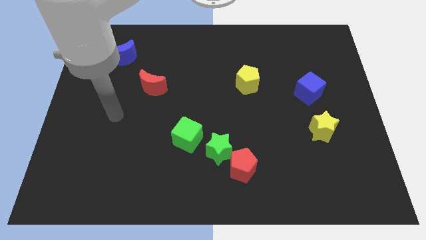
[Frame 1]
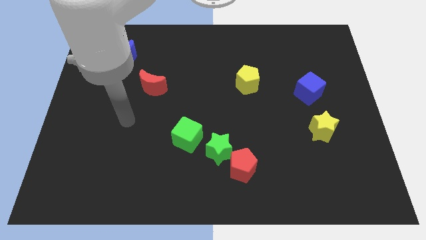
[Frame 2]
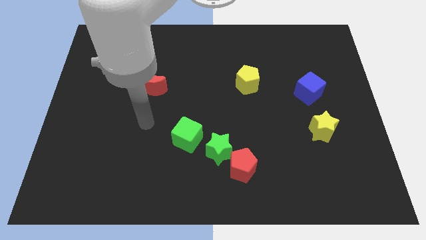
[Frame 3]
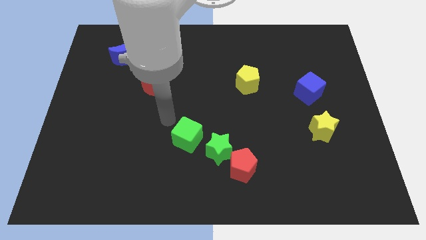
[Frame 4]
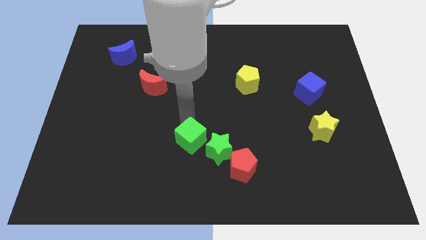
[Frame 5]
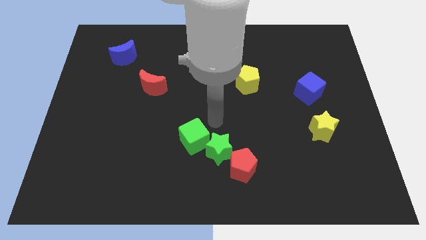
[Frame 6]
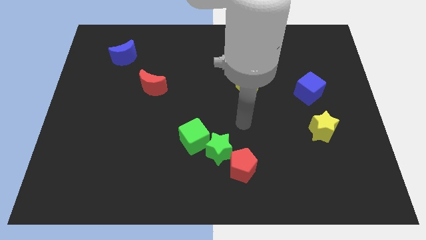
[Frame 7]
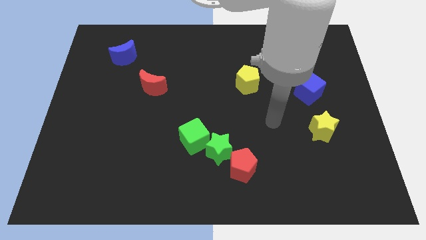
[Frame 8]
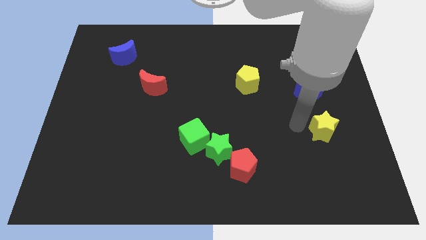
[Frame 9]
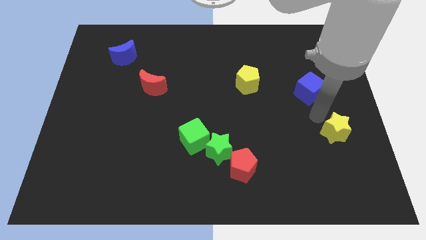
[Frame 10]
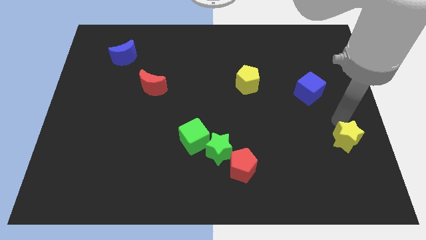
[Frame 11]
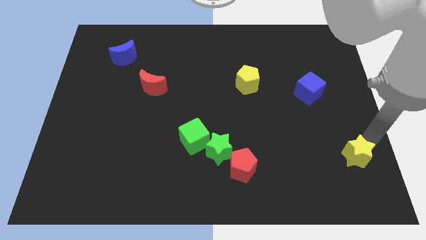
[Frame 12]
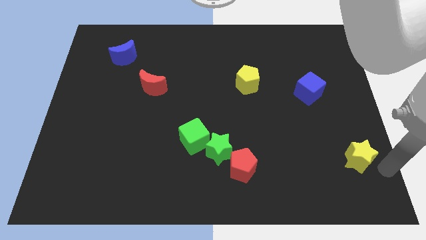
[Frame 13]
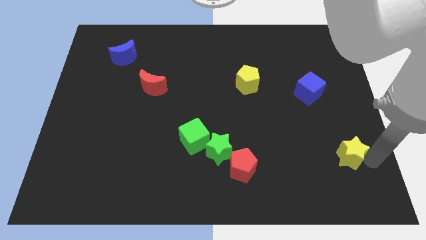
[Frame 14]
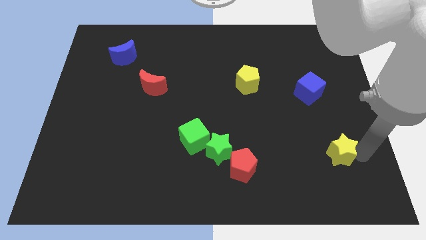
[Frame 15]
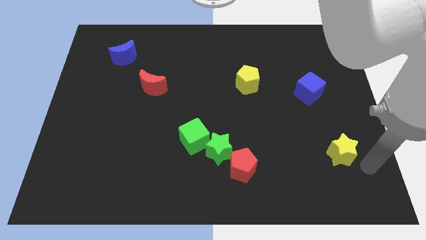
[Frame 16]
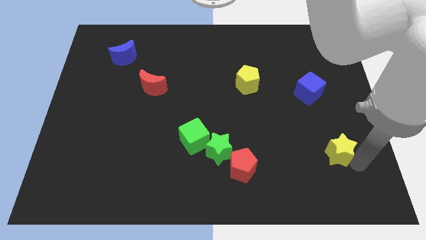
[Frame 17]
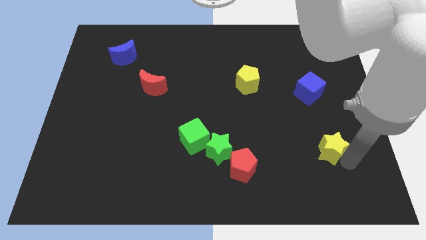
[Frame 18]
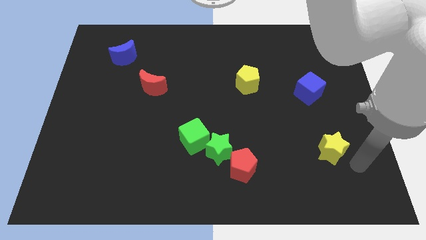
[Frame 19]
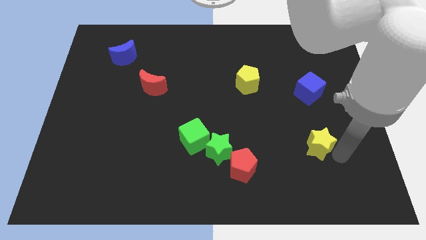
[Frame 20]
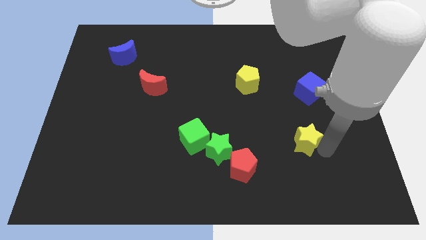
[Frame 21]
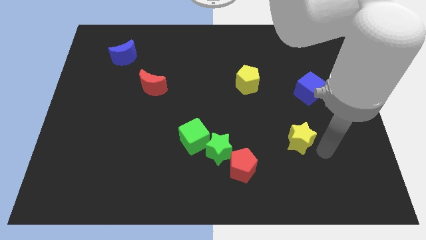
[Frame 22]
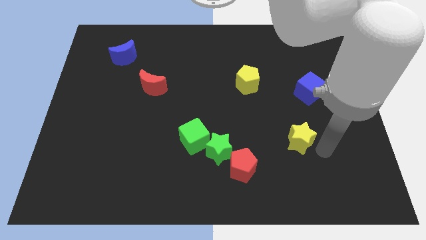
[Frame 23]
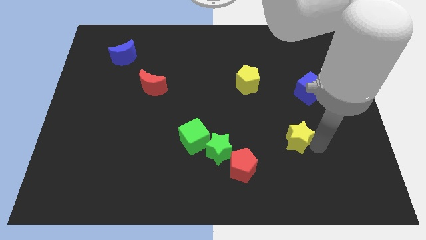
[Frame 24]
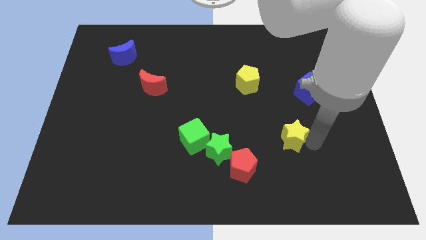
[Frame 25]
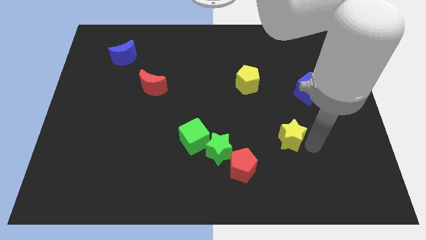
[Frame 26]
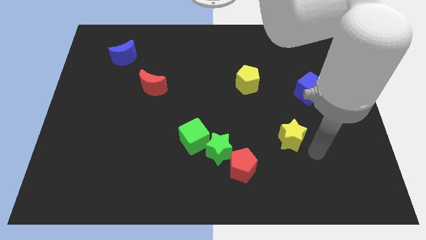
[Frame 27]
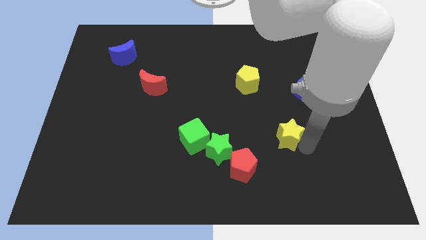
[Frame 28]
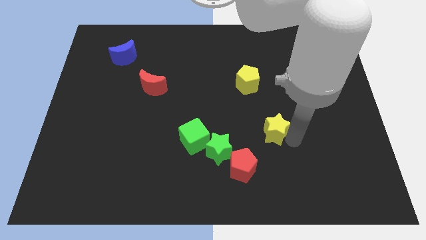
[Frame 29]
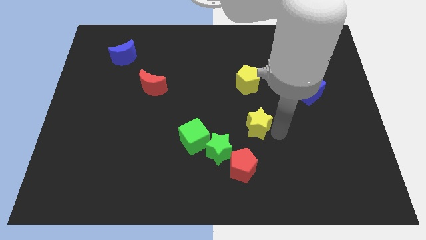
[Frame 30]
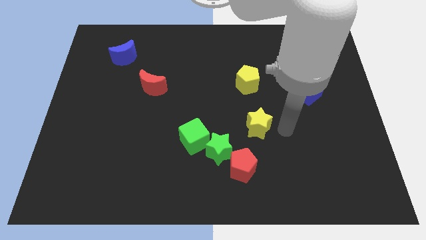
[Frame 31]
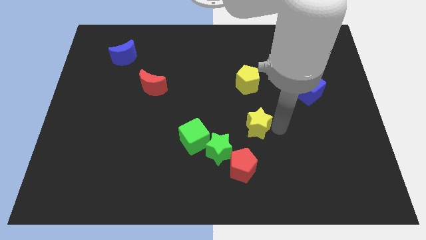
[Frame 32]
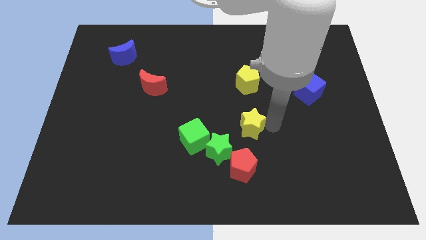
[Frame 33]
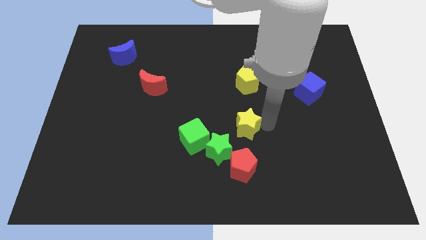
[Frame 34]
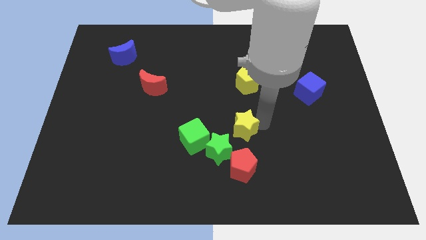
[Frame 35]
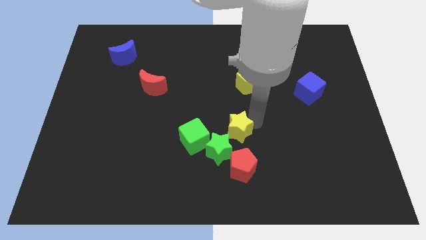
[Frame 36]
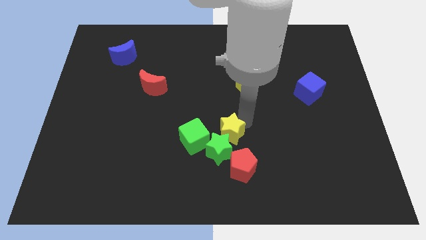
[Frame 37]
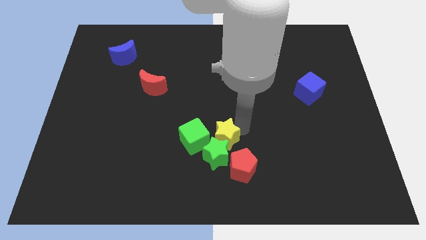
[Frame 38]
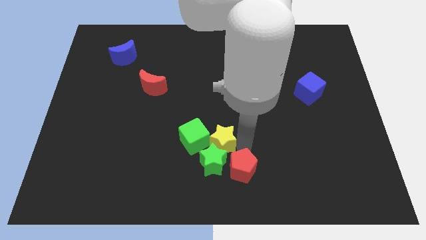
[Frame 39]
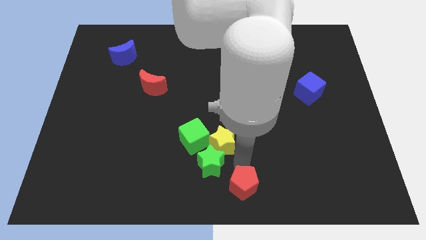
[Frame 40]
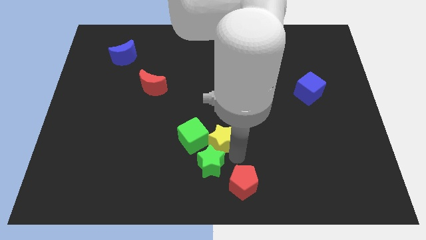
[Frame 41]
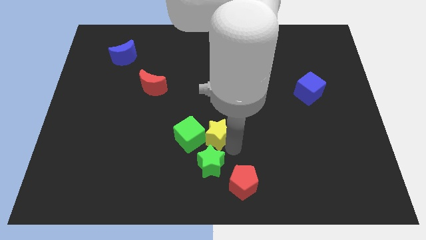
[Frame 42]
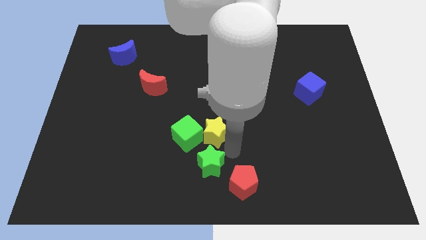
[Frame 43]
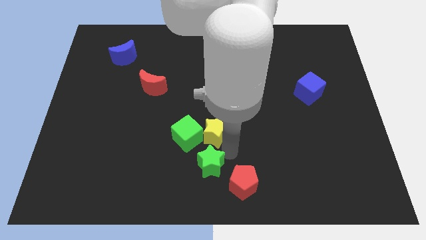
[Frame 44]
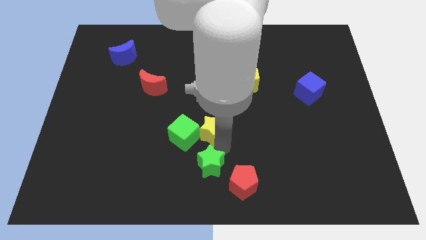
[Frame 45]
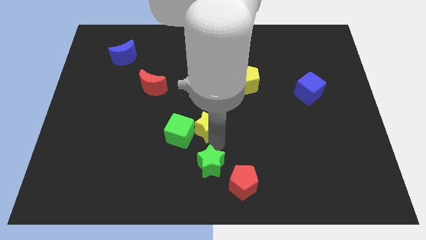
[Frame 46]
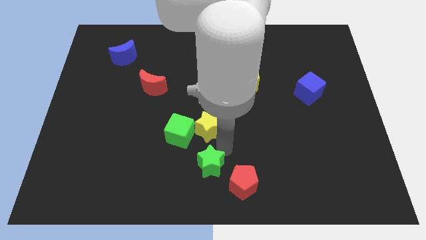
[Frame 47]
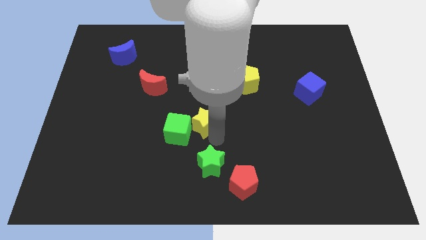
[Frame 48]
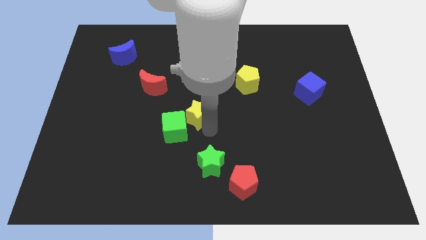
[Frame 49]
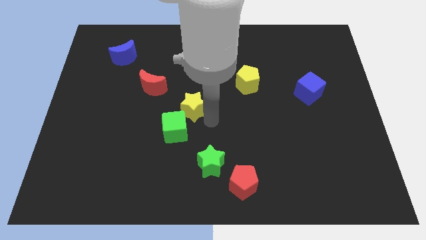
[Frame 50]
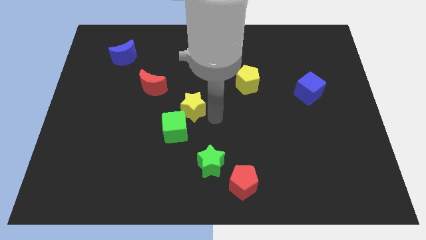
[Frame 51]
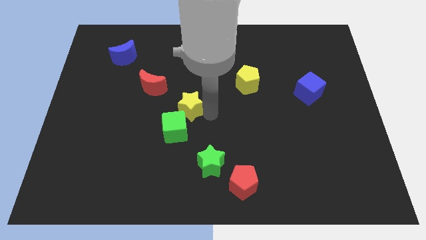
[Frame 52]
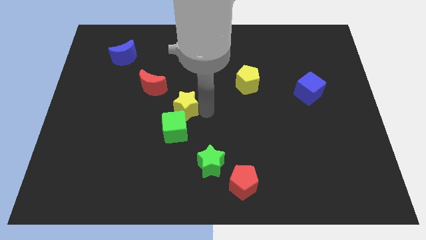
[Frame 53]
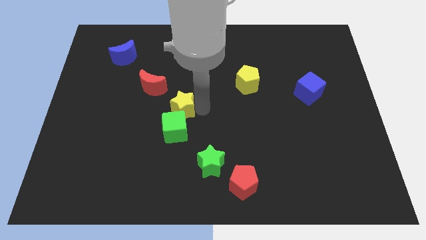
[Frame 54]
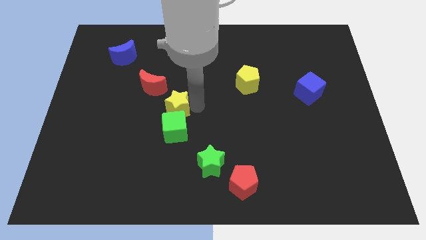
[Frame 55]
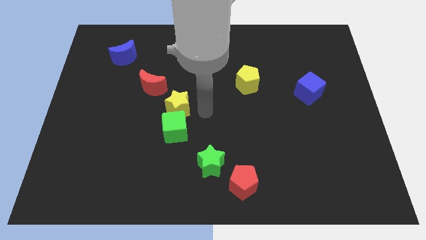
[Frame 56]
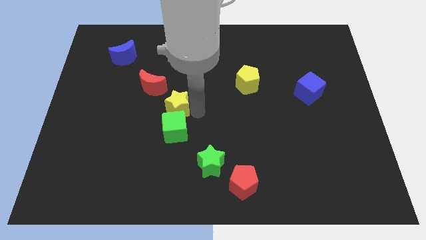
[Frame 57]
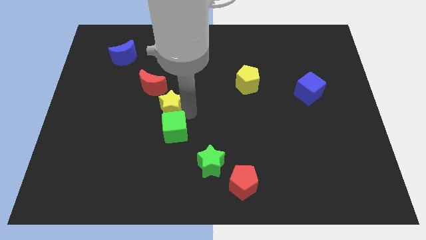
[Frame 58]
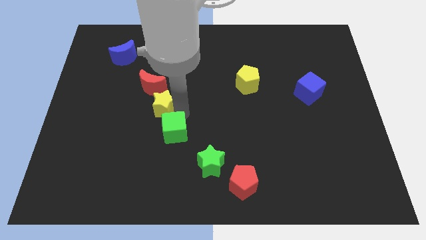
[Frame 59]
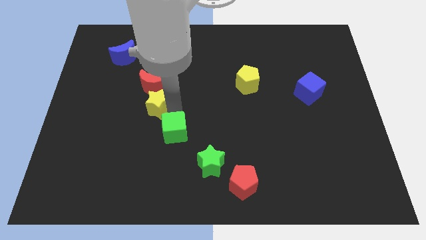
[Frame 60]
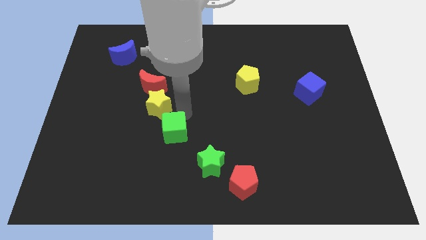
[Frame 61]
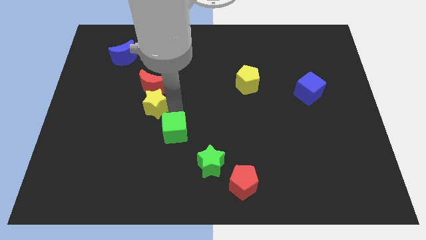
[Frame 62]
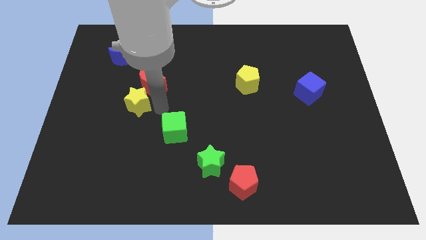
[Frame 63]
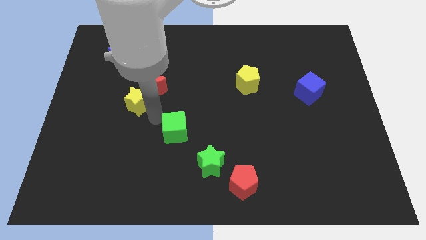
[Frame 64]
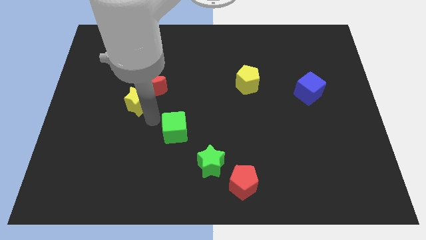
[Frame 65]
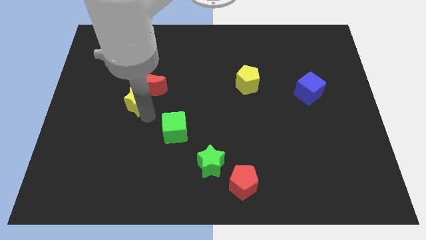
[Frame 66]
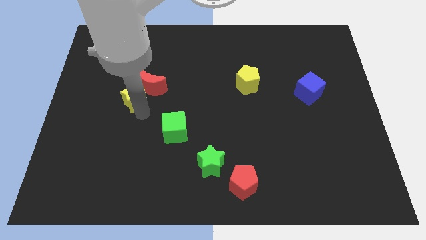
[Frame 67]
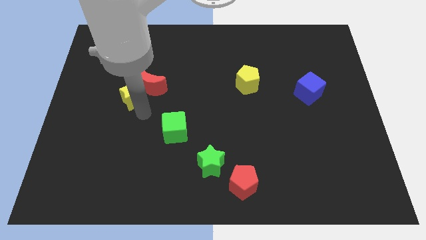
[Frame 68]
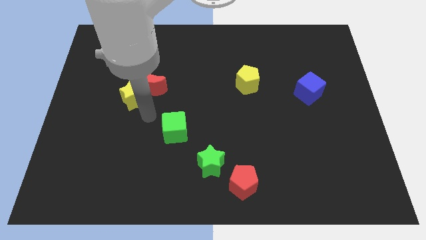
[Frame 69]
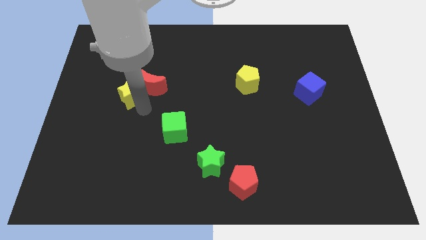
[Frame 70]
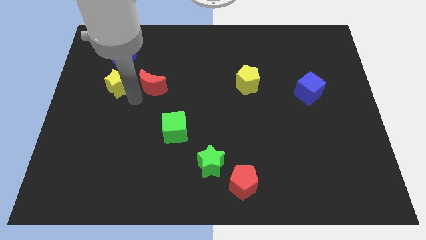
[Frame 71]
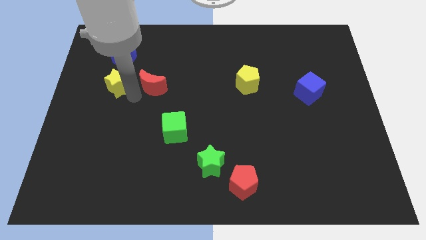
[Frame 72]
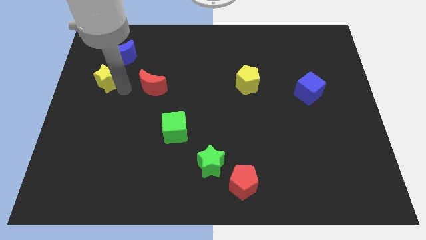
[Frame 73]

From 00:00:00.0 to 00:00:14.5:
push the yellow star diagonally down and to the left of the blue moon

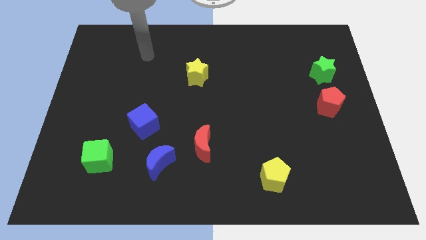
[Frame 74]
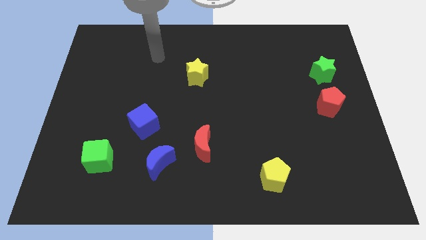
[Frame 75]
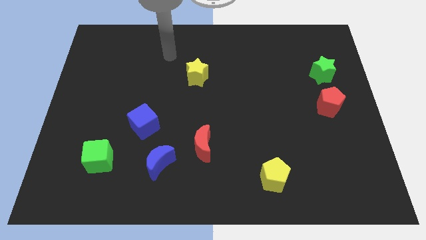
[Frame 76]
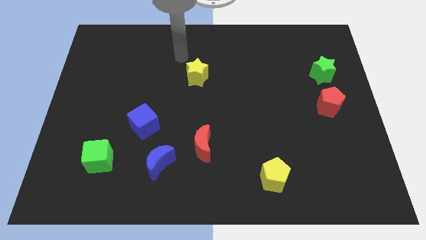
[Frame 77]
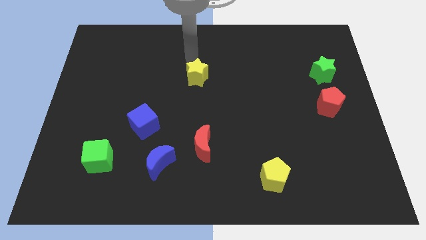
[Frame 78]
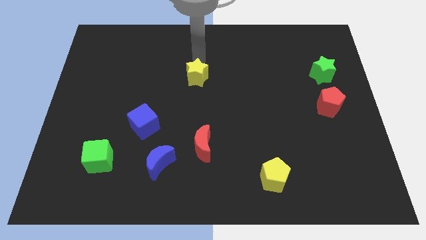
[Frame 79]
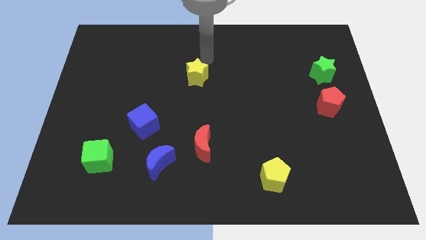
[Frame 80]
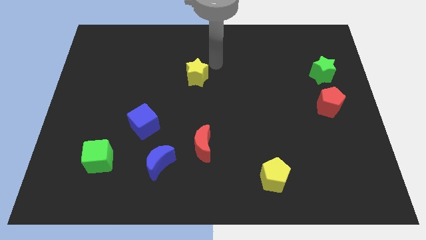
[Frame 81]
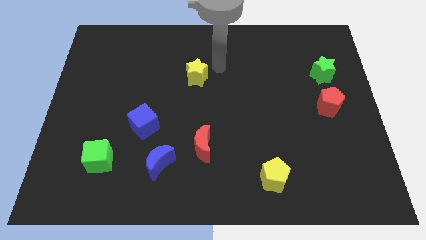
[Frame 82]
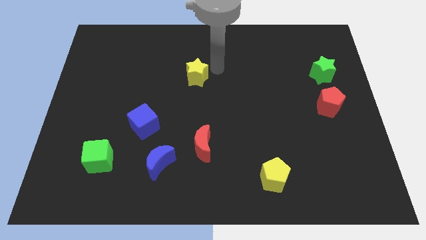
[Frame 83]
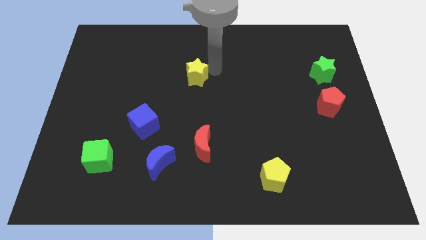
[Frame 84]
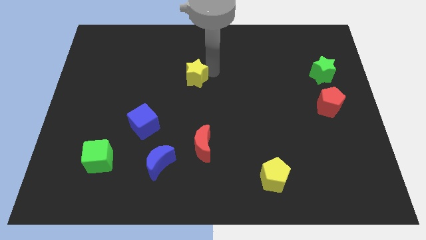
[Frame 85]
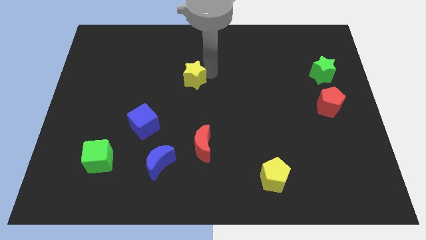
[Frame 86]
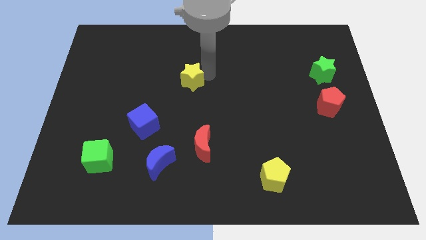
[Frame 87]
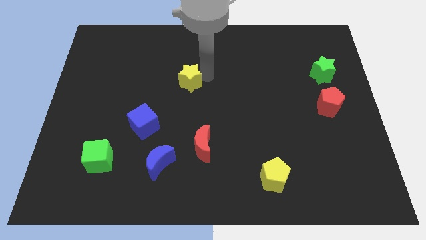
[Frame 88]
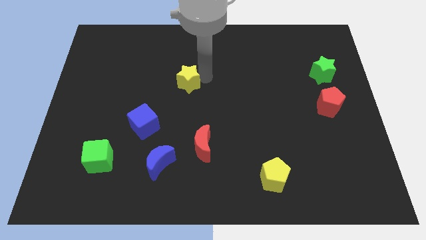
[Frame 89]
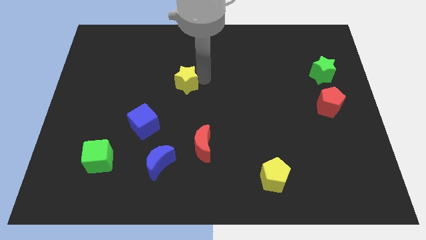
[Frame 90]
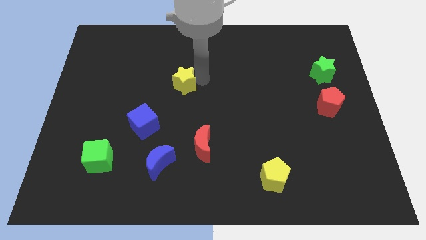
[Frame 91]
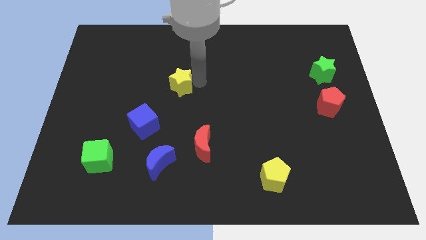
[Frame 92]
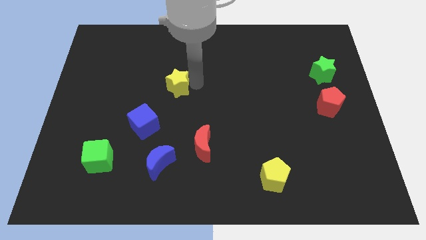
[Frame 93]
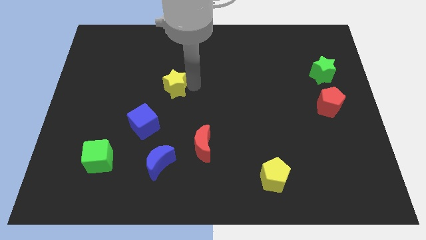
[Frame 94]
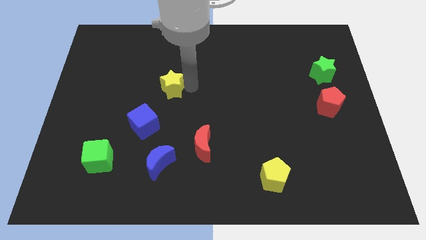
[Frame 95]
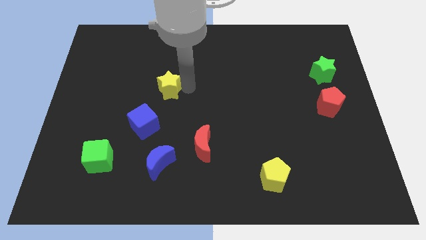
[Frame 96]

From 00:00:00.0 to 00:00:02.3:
move the yellow star to the top of the blue cube
